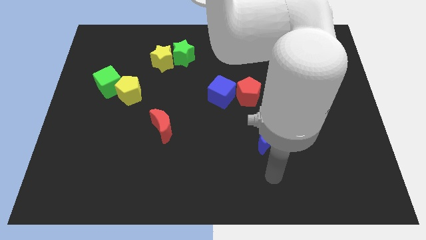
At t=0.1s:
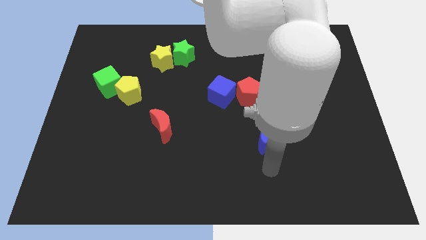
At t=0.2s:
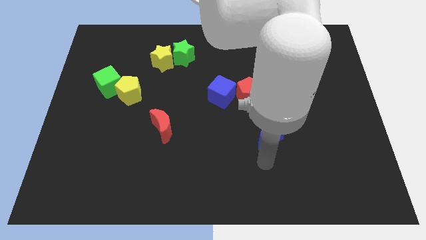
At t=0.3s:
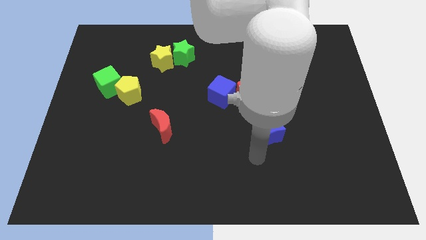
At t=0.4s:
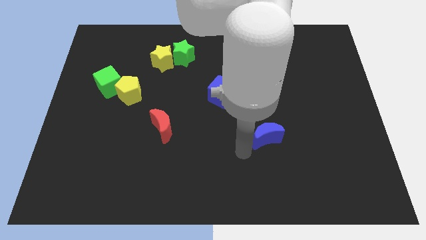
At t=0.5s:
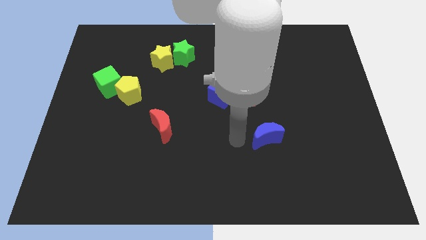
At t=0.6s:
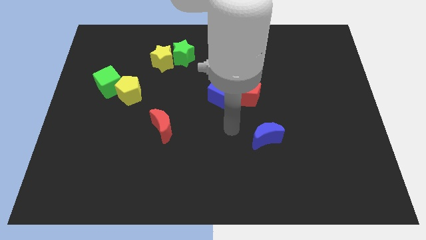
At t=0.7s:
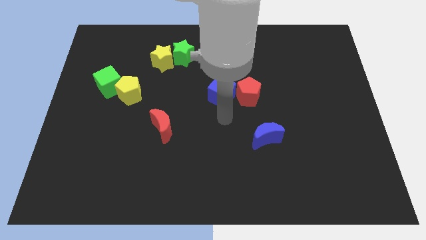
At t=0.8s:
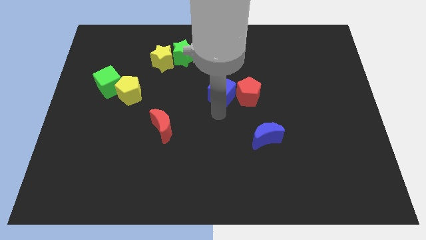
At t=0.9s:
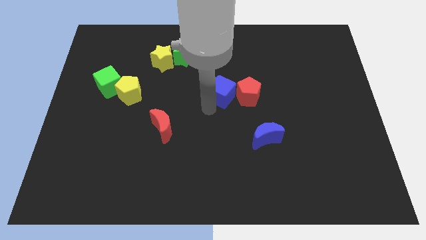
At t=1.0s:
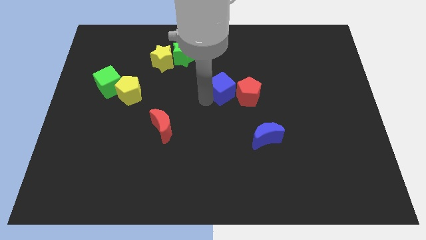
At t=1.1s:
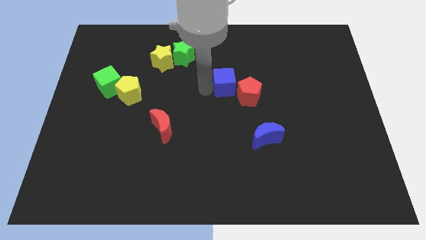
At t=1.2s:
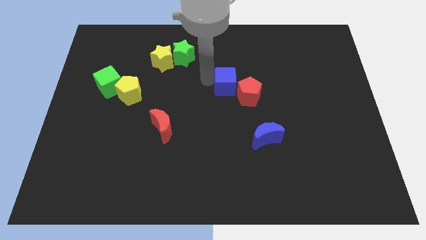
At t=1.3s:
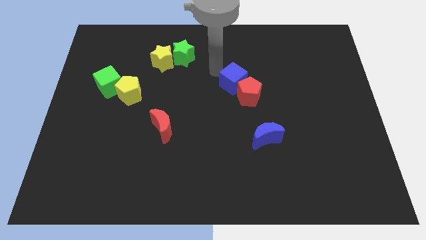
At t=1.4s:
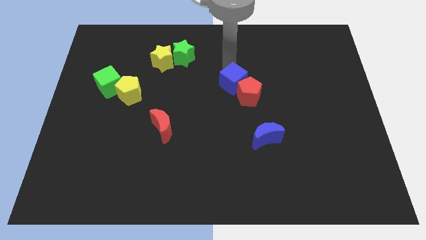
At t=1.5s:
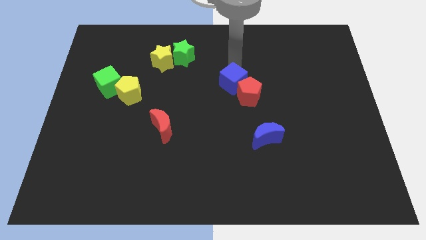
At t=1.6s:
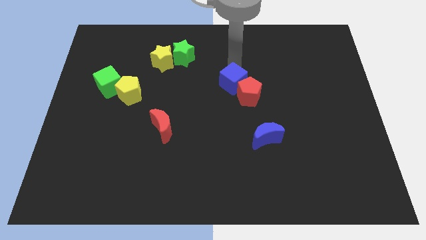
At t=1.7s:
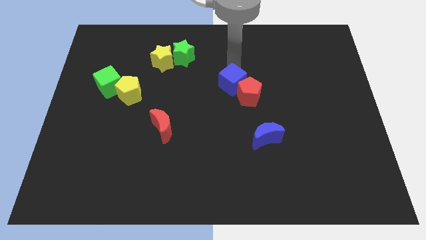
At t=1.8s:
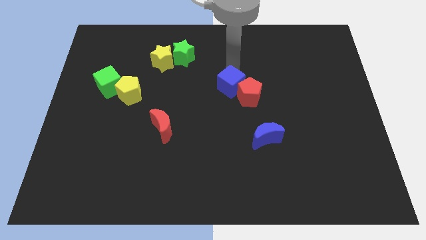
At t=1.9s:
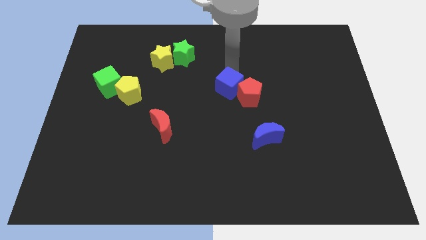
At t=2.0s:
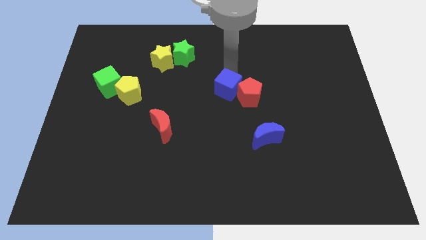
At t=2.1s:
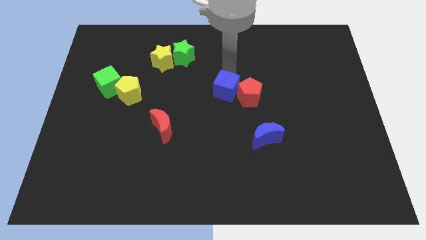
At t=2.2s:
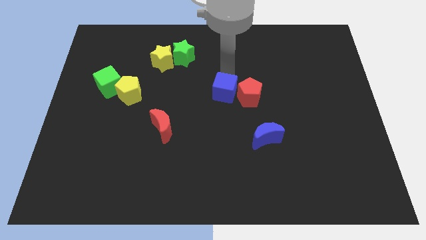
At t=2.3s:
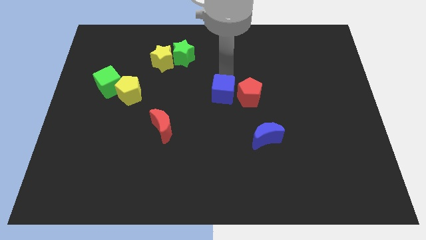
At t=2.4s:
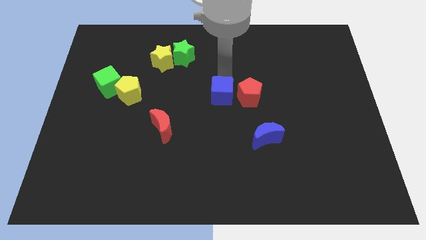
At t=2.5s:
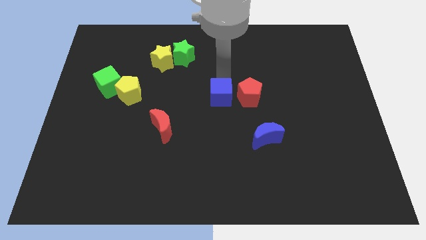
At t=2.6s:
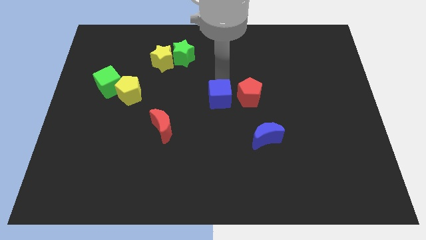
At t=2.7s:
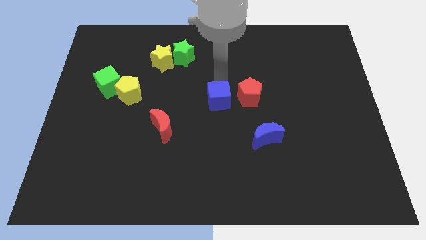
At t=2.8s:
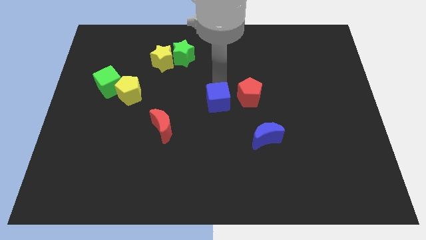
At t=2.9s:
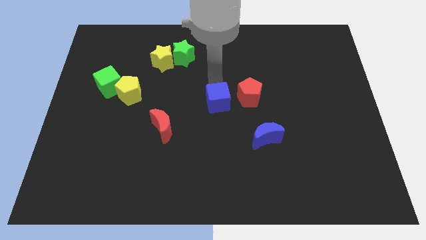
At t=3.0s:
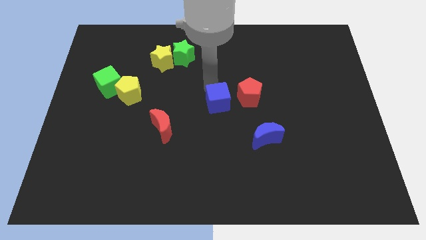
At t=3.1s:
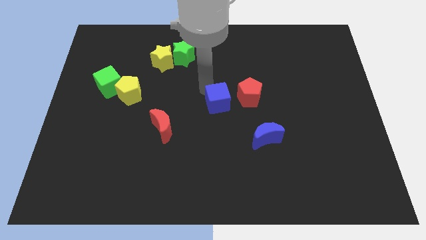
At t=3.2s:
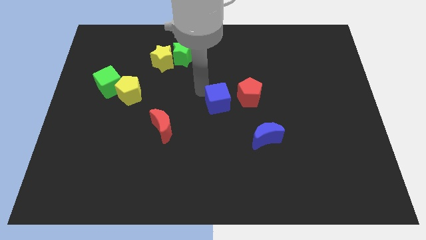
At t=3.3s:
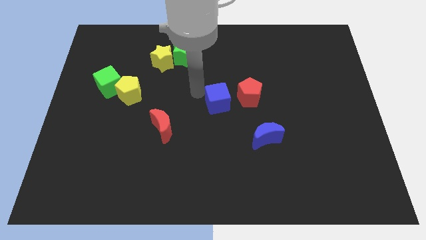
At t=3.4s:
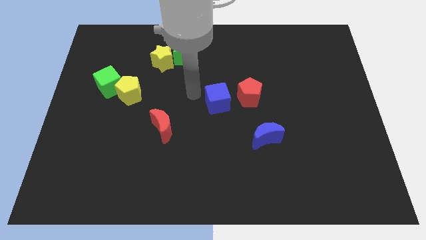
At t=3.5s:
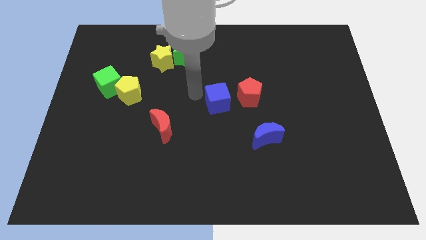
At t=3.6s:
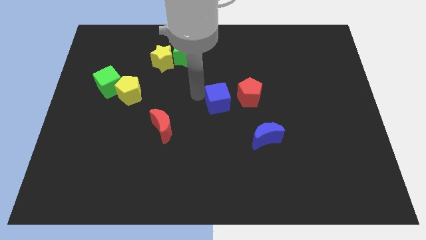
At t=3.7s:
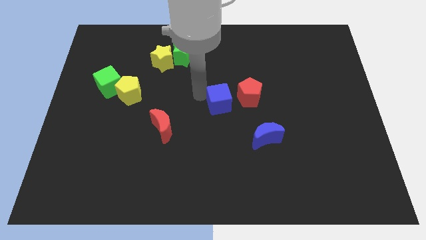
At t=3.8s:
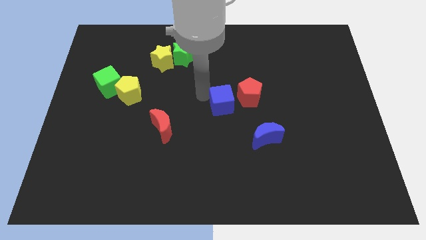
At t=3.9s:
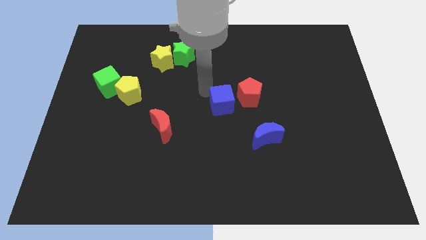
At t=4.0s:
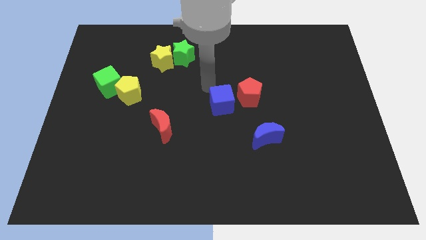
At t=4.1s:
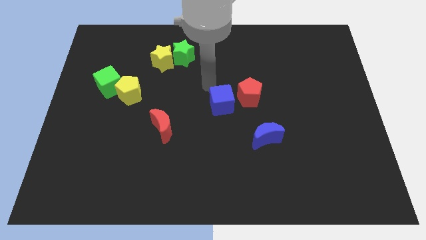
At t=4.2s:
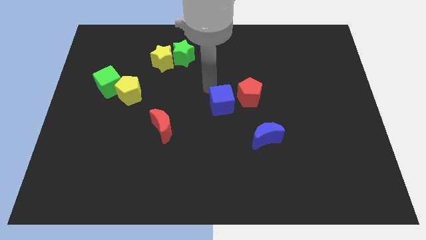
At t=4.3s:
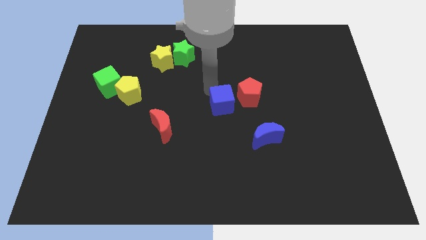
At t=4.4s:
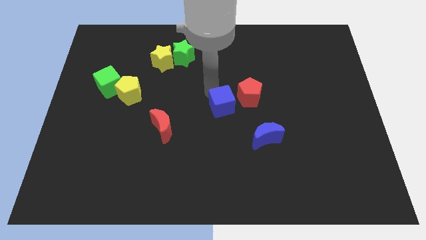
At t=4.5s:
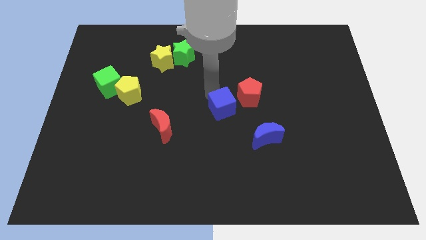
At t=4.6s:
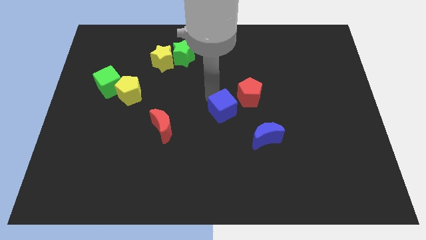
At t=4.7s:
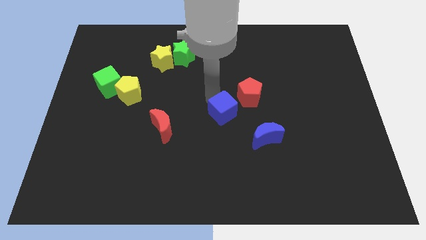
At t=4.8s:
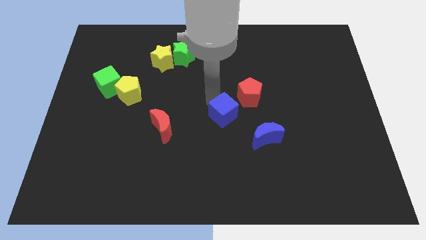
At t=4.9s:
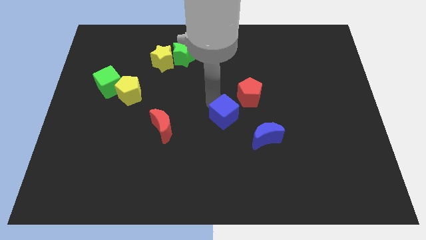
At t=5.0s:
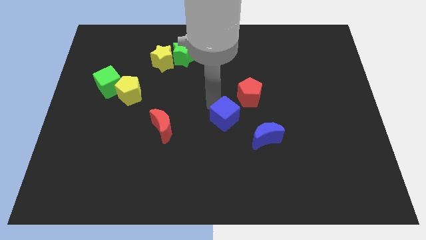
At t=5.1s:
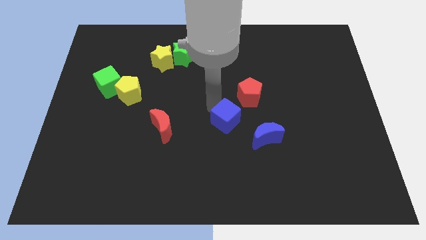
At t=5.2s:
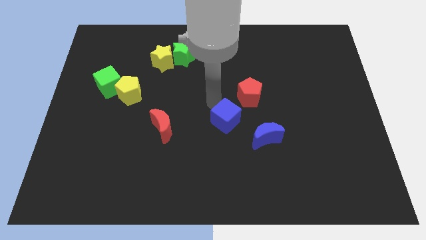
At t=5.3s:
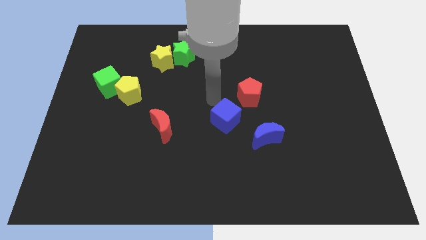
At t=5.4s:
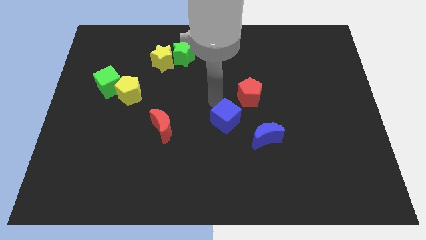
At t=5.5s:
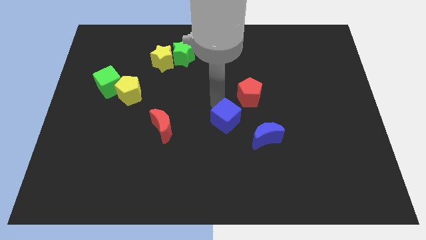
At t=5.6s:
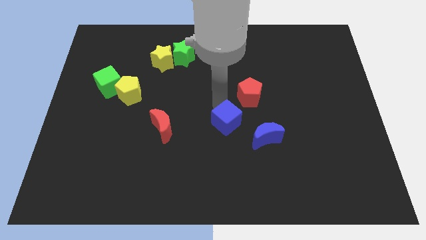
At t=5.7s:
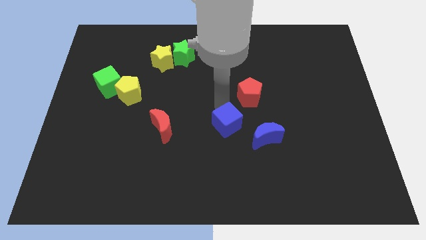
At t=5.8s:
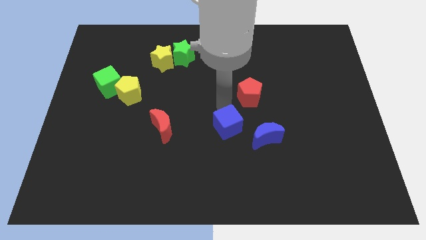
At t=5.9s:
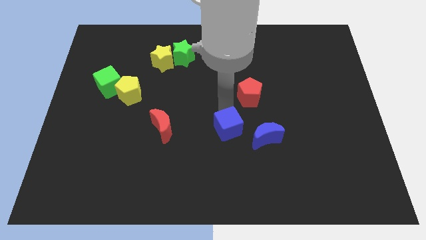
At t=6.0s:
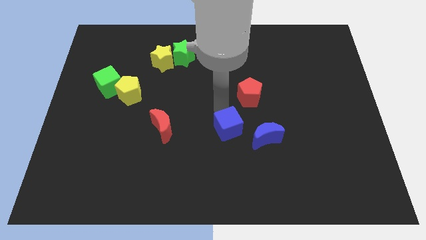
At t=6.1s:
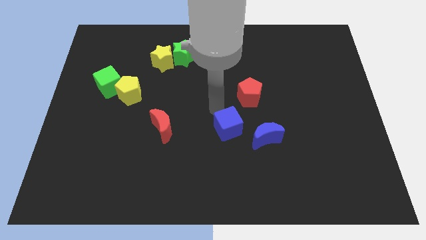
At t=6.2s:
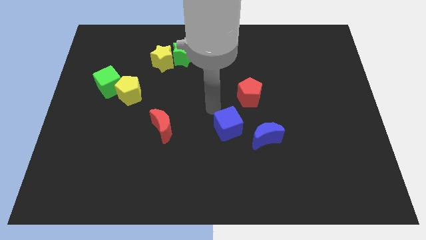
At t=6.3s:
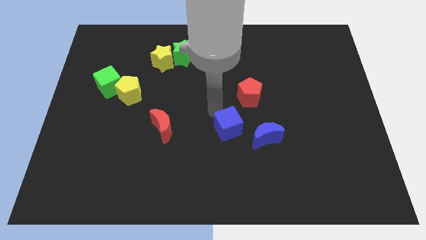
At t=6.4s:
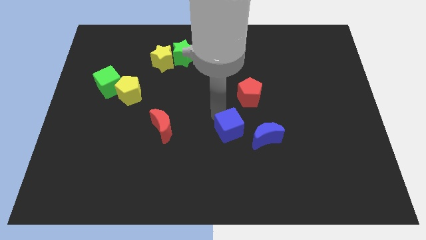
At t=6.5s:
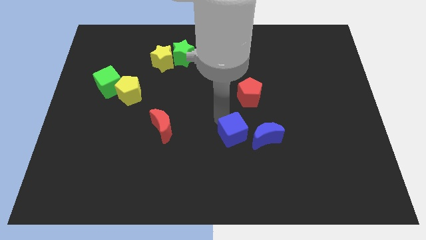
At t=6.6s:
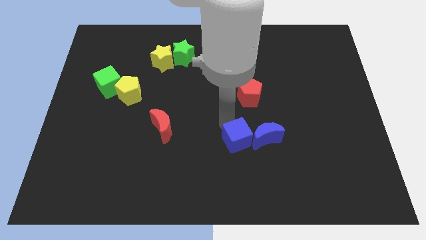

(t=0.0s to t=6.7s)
move the blue cube to the bottom left of the blue moon

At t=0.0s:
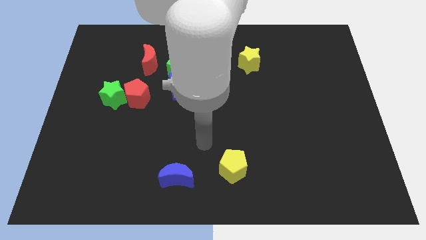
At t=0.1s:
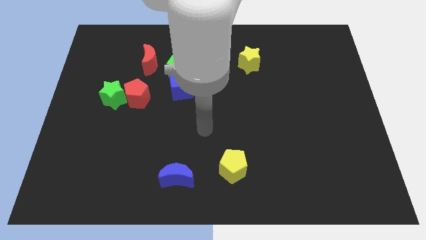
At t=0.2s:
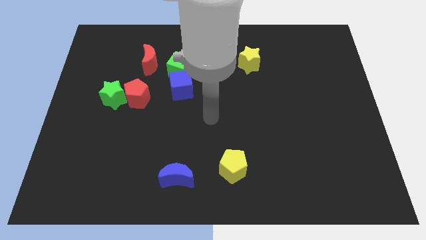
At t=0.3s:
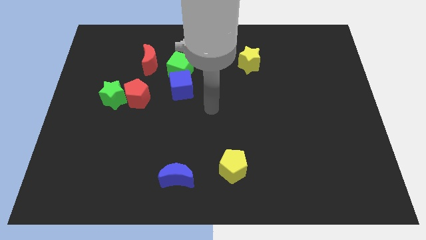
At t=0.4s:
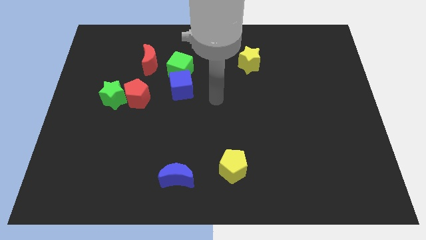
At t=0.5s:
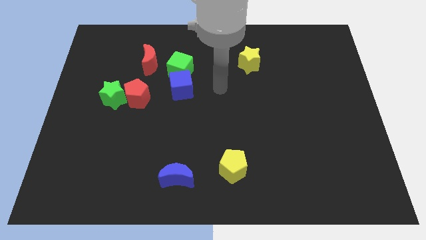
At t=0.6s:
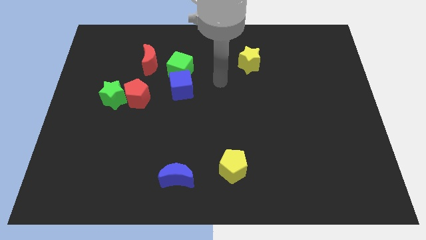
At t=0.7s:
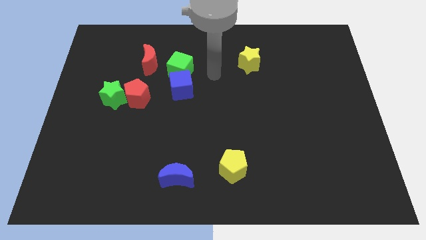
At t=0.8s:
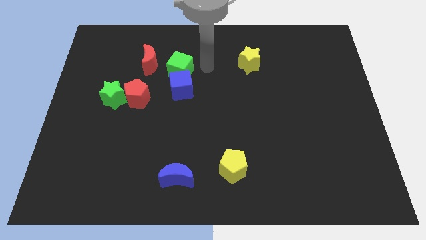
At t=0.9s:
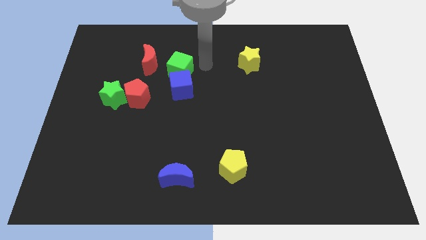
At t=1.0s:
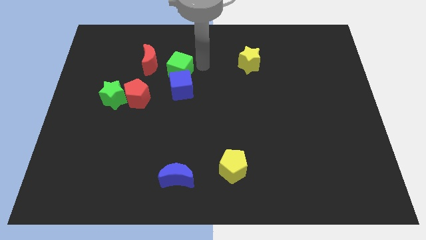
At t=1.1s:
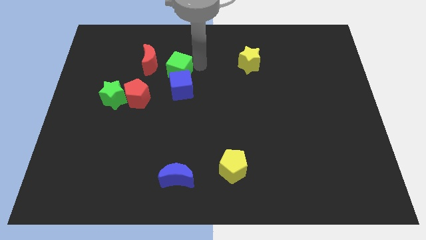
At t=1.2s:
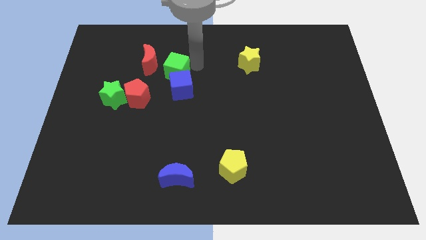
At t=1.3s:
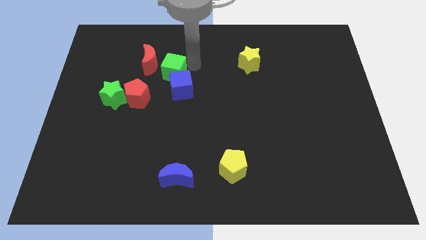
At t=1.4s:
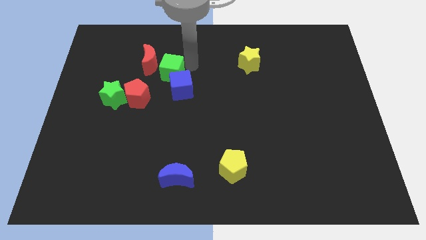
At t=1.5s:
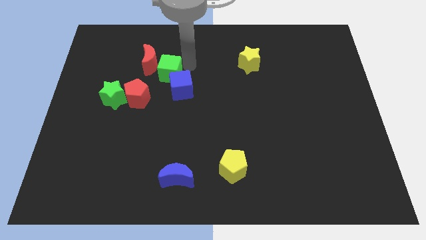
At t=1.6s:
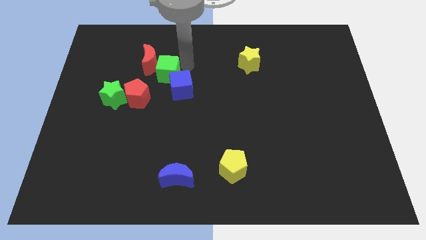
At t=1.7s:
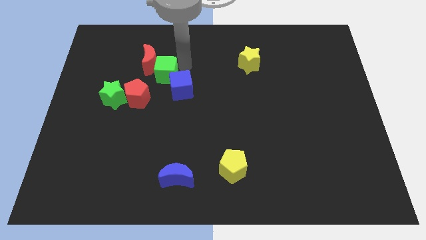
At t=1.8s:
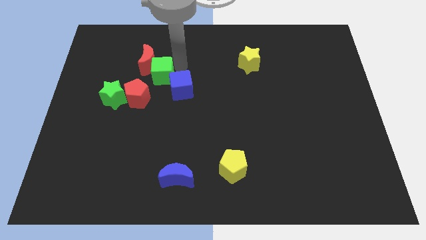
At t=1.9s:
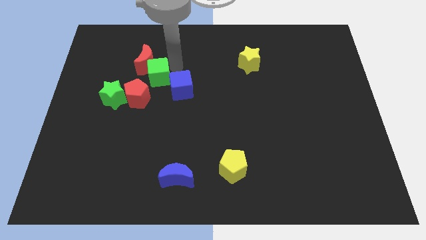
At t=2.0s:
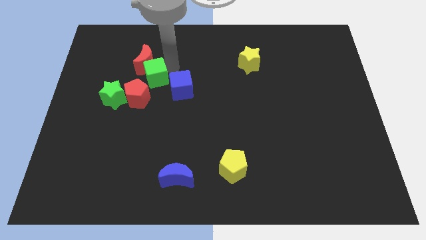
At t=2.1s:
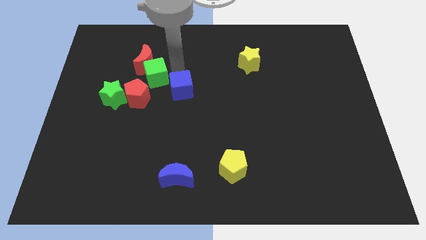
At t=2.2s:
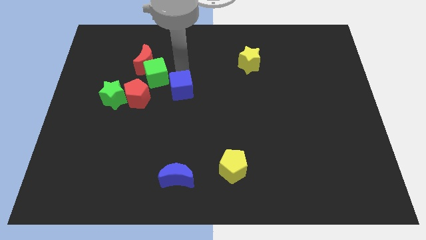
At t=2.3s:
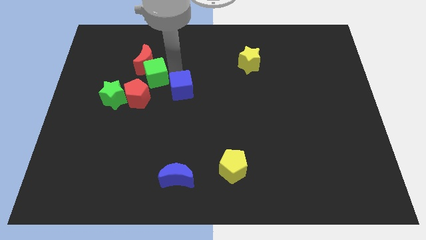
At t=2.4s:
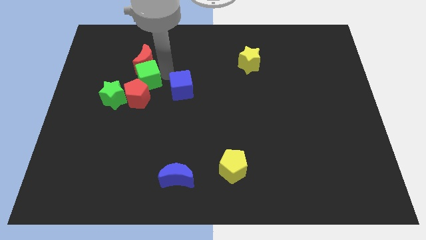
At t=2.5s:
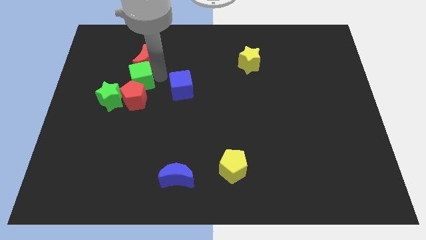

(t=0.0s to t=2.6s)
slide the green cube diagonally up and to the left of the red pentagon
